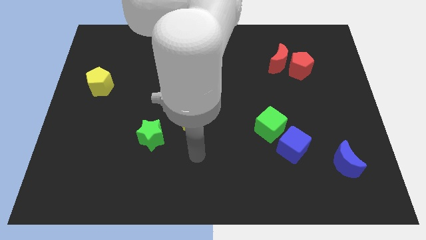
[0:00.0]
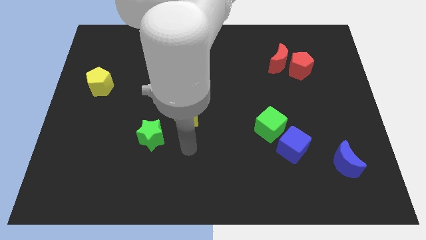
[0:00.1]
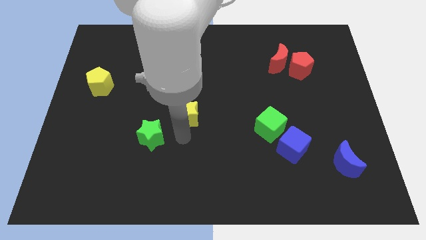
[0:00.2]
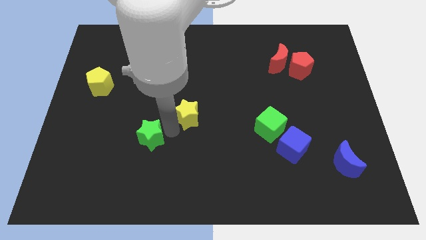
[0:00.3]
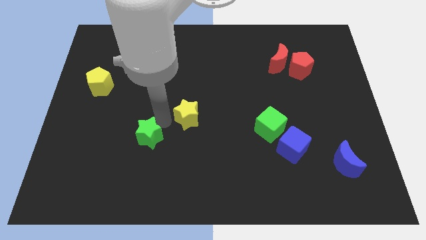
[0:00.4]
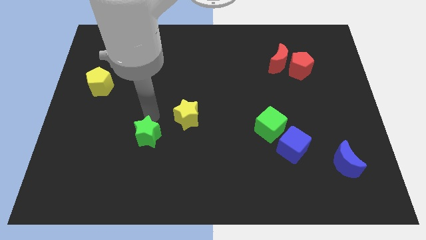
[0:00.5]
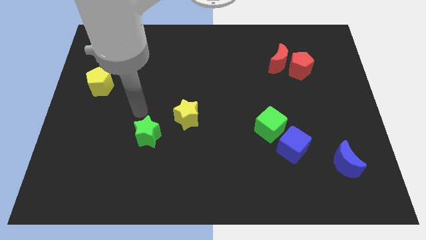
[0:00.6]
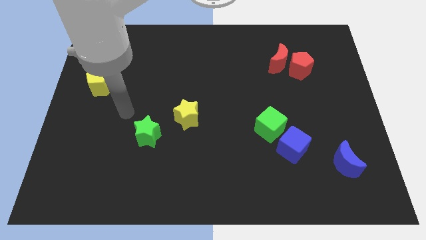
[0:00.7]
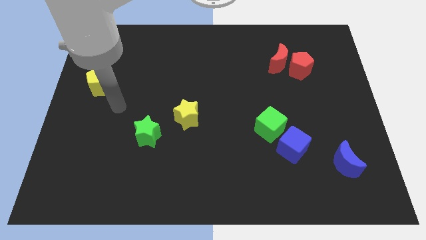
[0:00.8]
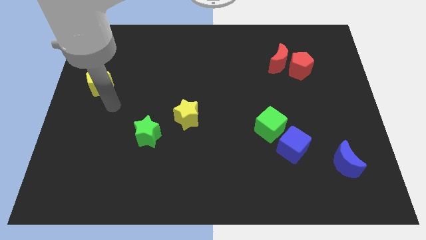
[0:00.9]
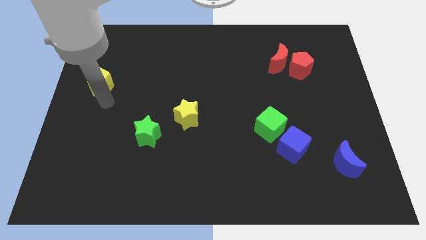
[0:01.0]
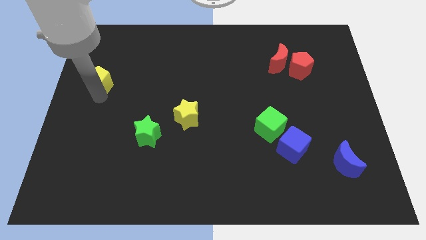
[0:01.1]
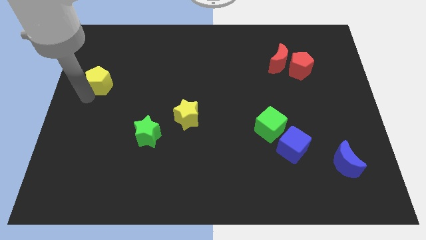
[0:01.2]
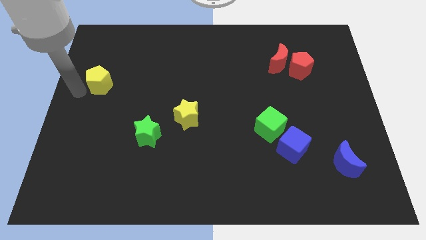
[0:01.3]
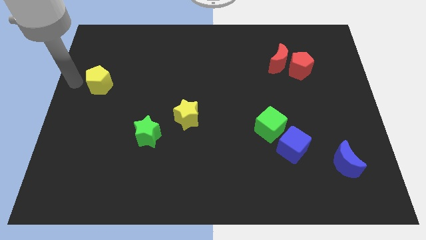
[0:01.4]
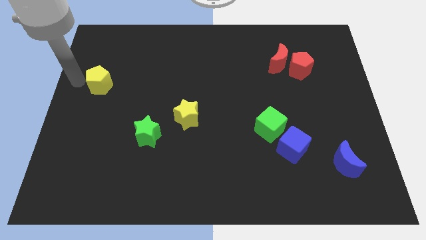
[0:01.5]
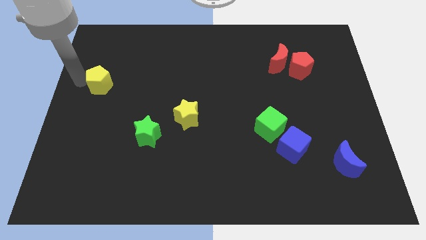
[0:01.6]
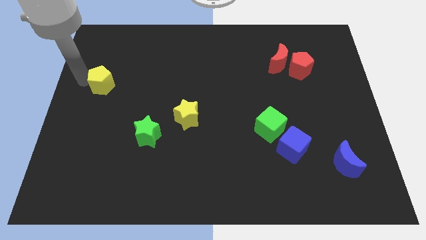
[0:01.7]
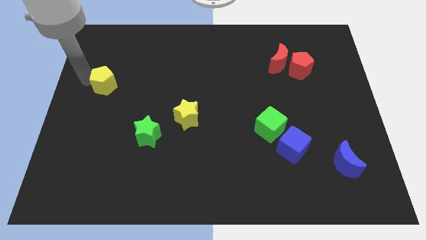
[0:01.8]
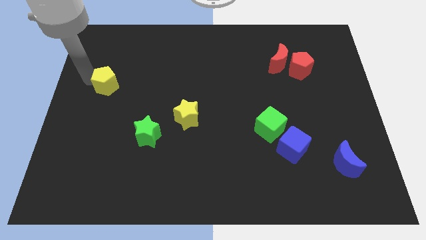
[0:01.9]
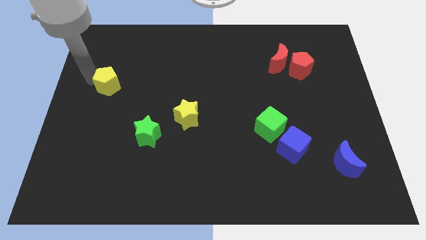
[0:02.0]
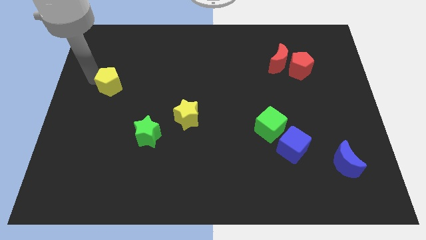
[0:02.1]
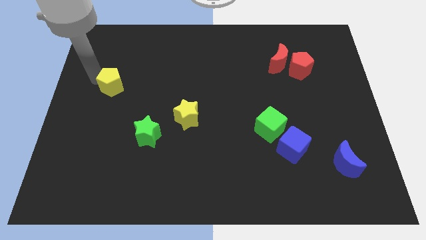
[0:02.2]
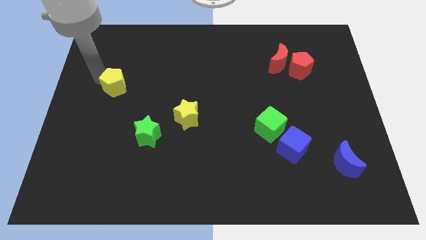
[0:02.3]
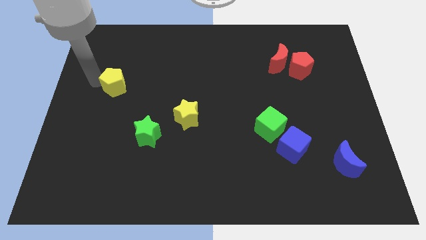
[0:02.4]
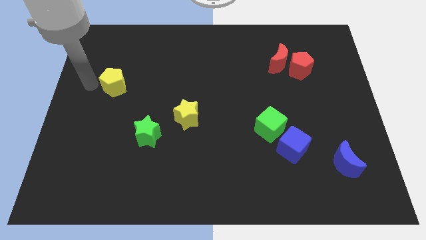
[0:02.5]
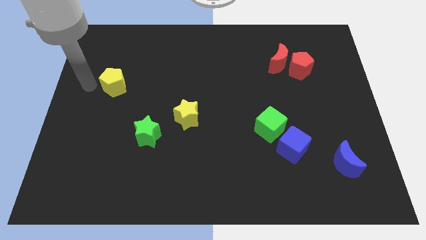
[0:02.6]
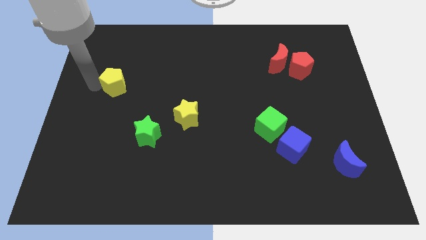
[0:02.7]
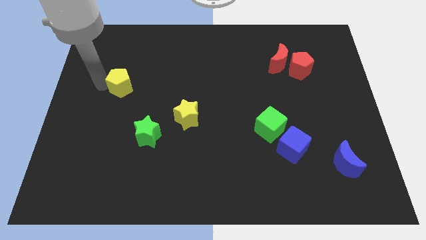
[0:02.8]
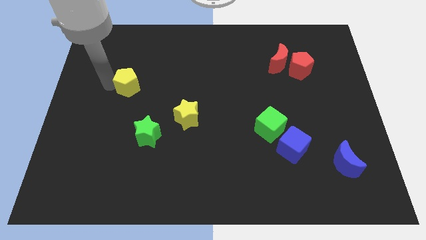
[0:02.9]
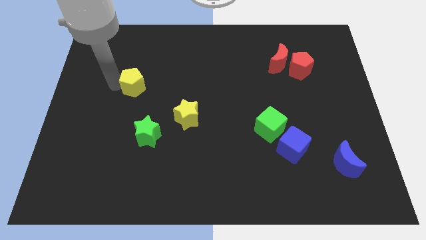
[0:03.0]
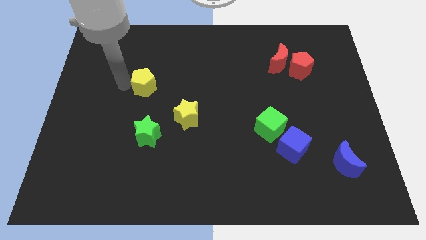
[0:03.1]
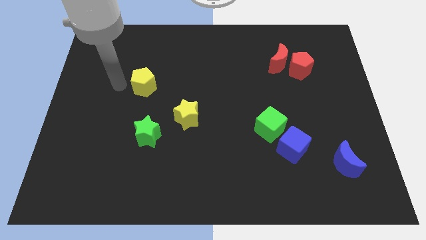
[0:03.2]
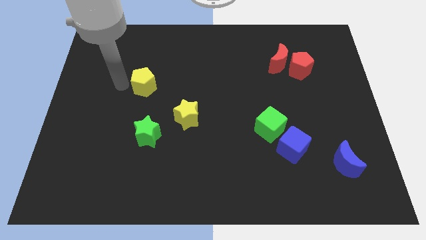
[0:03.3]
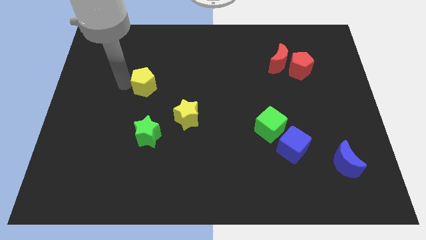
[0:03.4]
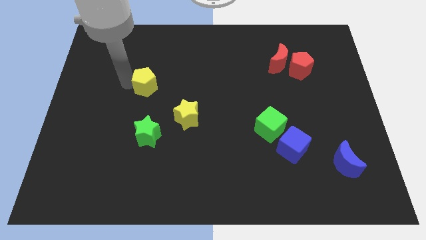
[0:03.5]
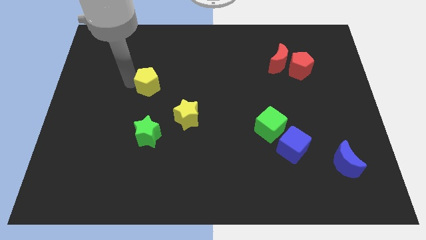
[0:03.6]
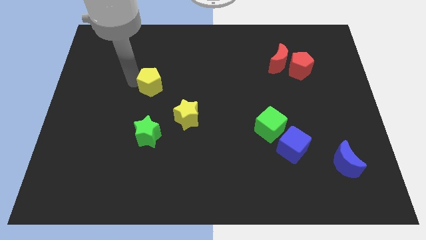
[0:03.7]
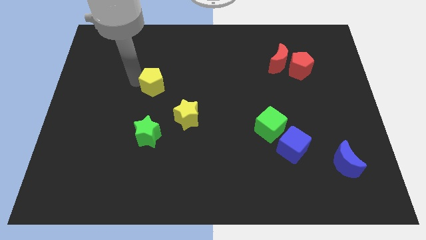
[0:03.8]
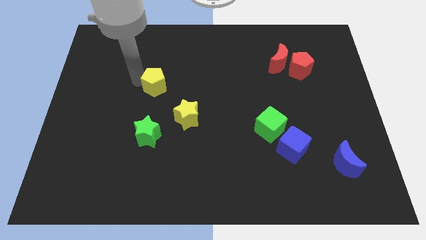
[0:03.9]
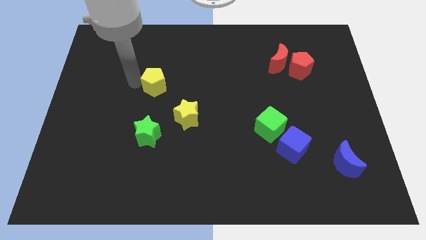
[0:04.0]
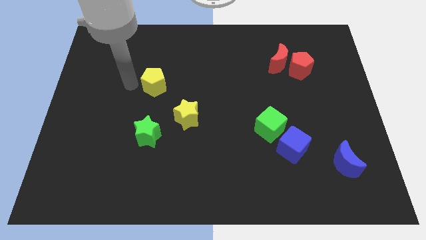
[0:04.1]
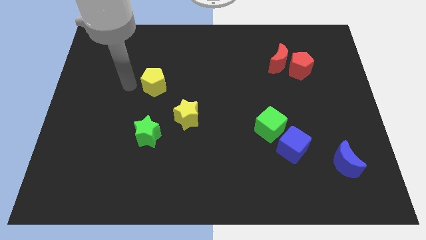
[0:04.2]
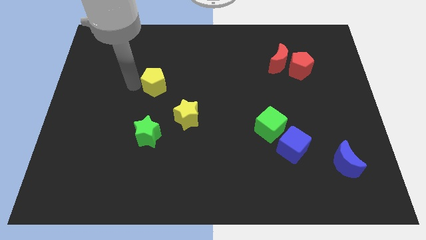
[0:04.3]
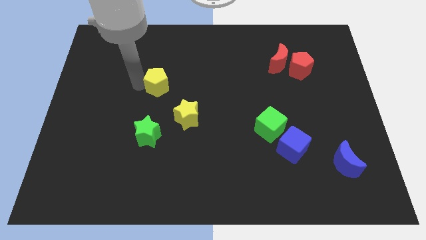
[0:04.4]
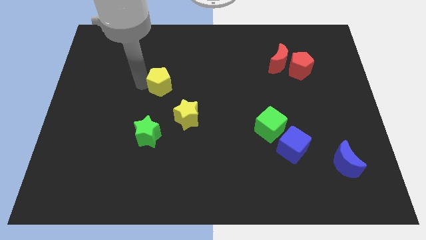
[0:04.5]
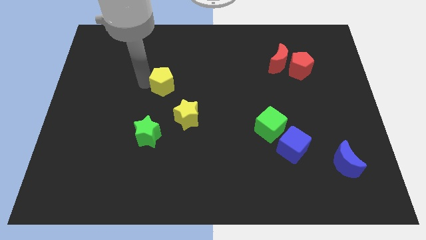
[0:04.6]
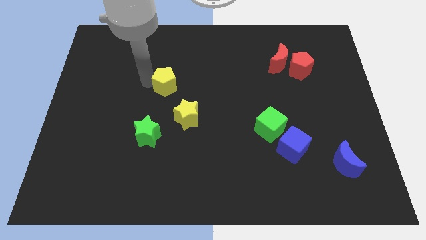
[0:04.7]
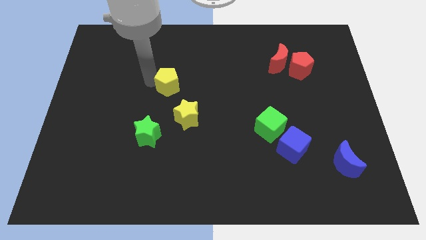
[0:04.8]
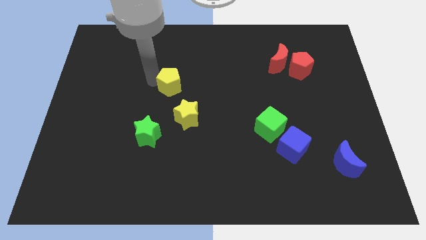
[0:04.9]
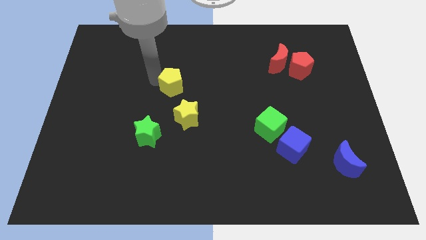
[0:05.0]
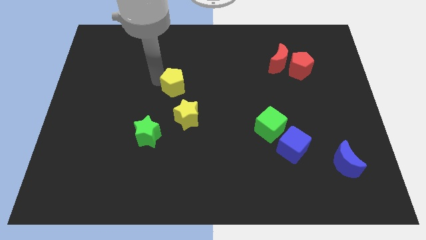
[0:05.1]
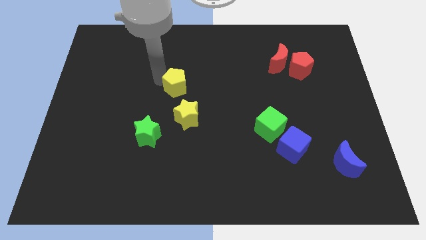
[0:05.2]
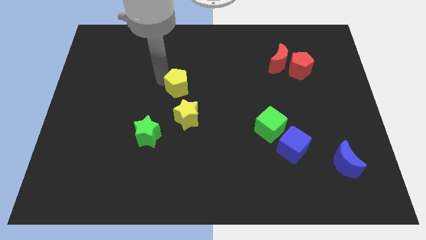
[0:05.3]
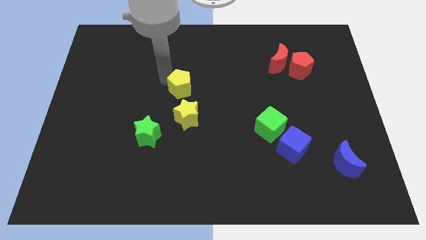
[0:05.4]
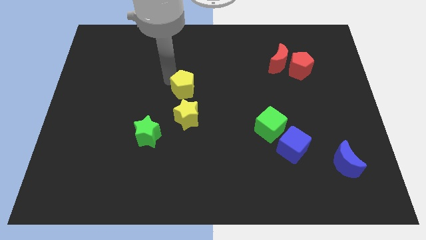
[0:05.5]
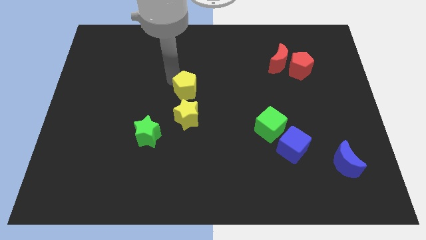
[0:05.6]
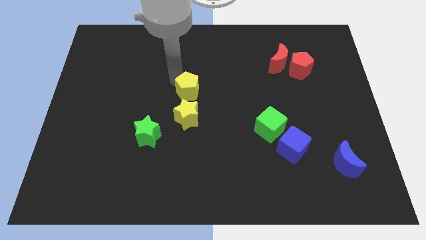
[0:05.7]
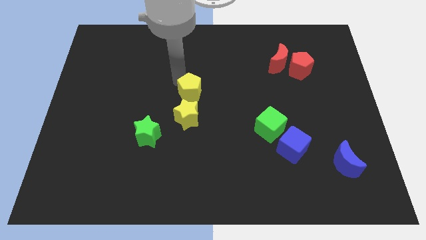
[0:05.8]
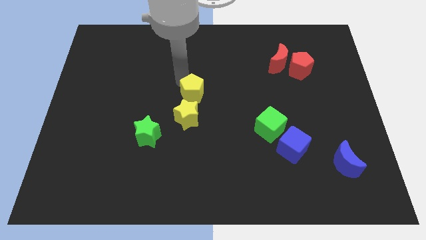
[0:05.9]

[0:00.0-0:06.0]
move the yellow pentagon diagonally up and to the right of the yellow star

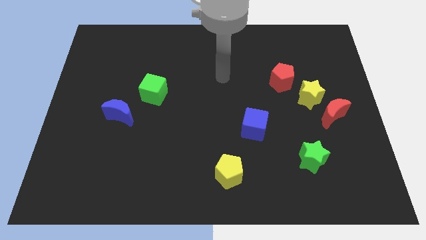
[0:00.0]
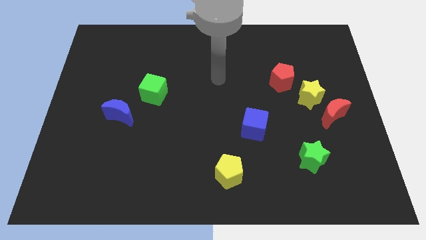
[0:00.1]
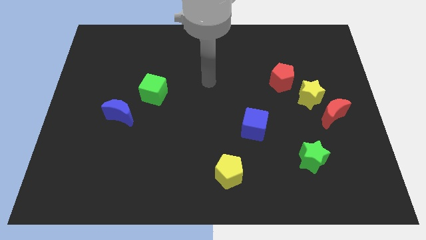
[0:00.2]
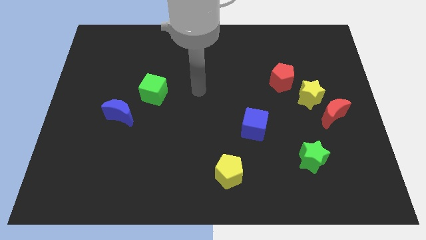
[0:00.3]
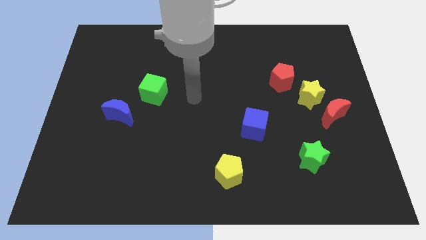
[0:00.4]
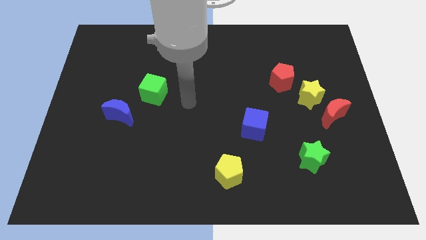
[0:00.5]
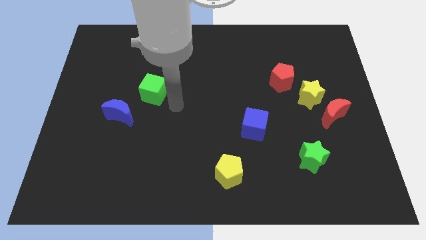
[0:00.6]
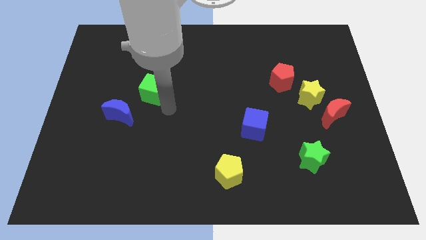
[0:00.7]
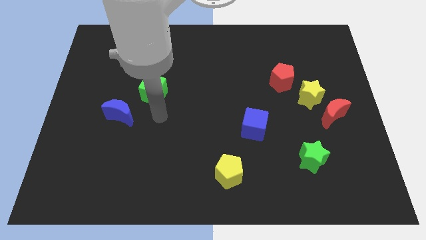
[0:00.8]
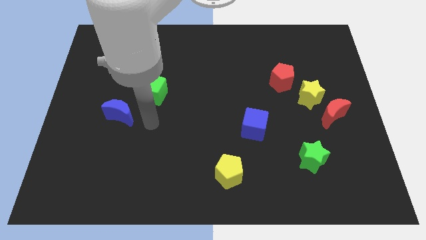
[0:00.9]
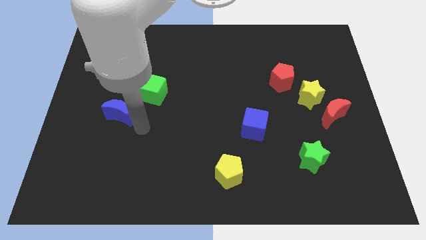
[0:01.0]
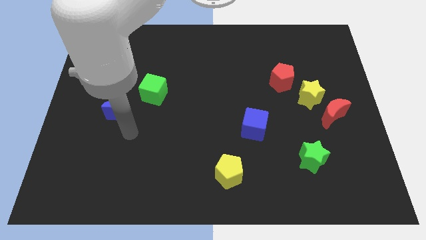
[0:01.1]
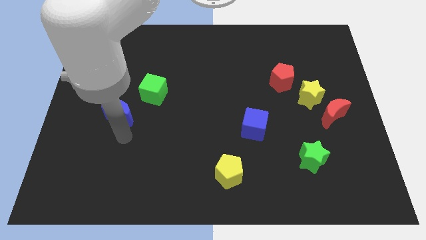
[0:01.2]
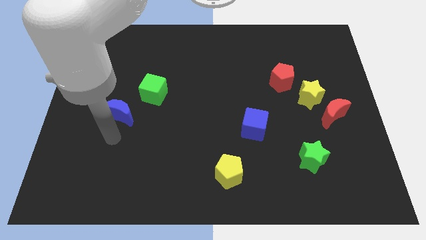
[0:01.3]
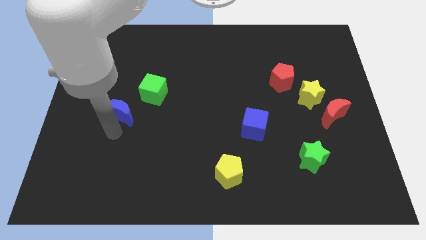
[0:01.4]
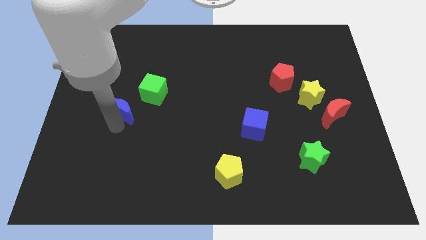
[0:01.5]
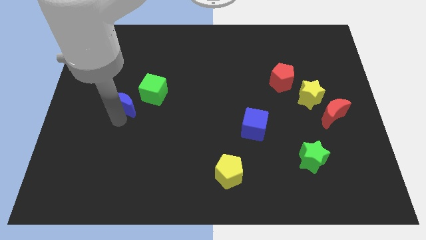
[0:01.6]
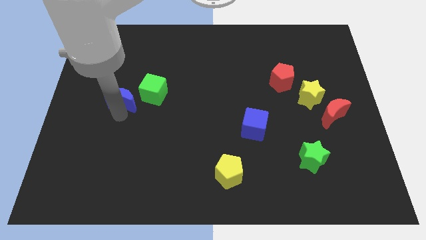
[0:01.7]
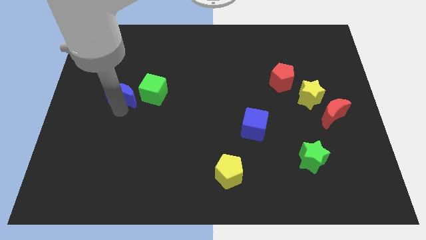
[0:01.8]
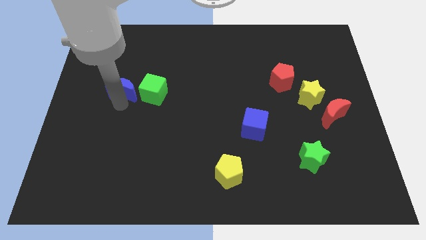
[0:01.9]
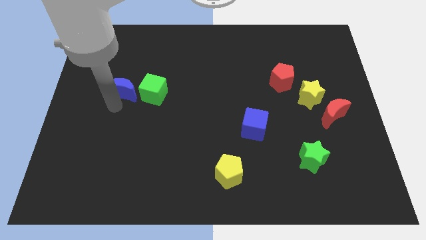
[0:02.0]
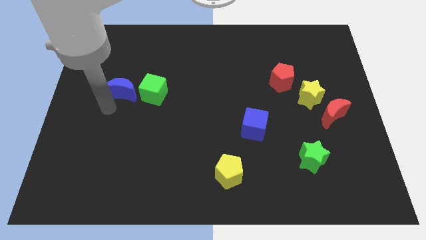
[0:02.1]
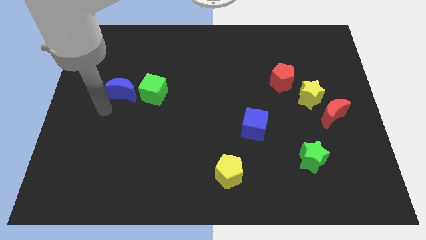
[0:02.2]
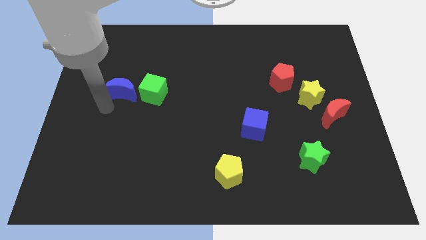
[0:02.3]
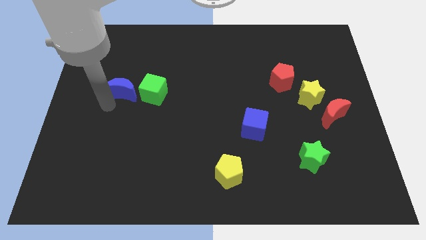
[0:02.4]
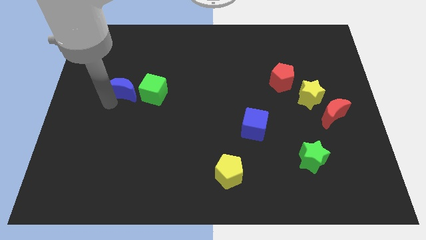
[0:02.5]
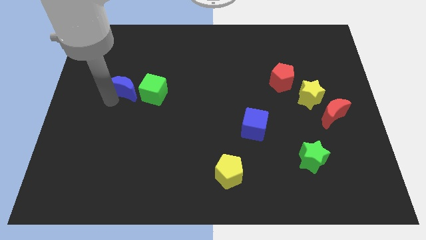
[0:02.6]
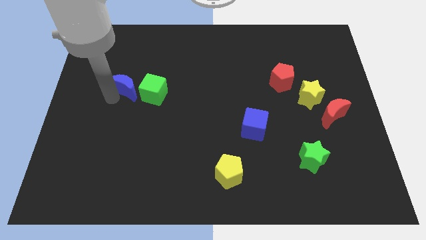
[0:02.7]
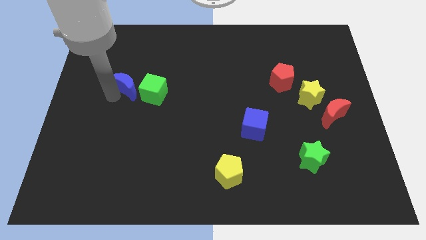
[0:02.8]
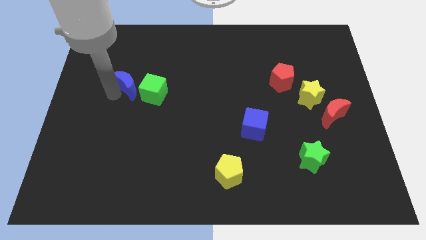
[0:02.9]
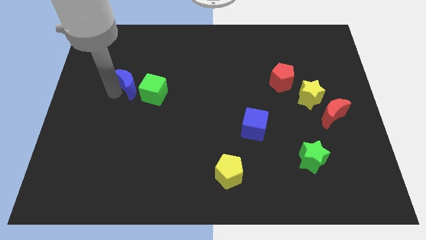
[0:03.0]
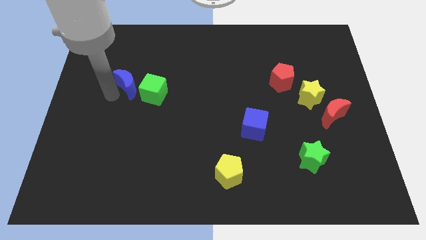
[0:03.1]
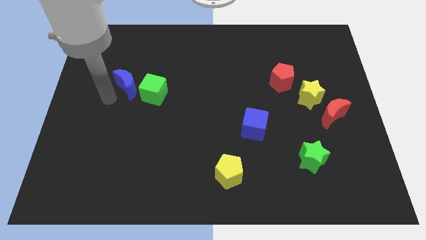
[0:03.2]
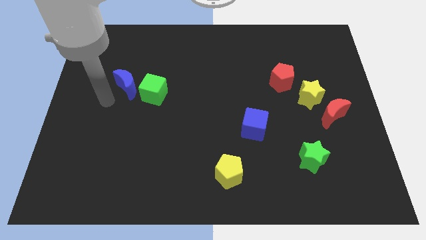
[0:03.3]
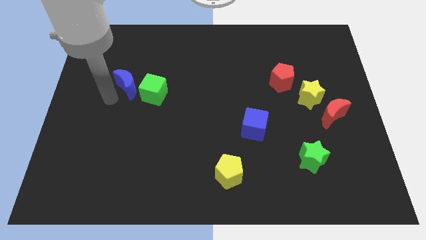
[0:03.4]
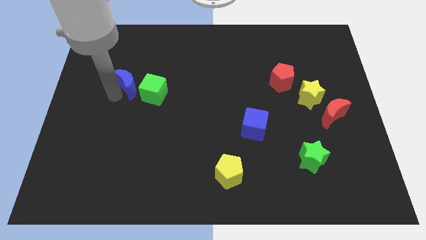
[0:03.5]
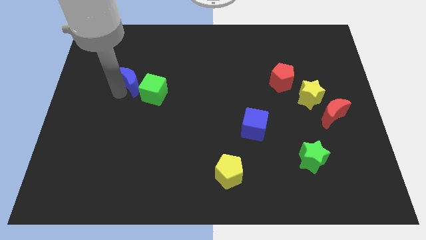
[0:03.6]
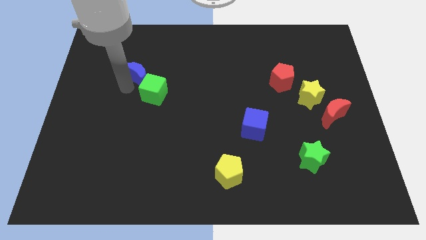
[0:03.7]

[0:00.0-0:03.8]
push the blue moon to the top of the green cube
